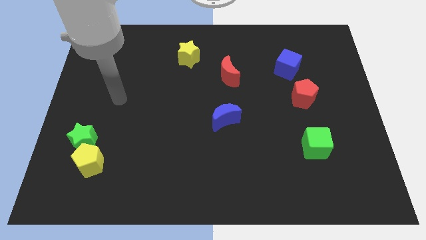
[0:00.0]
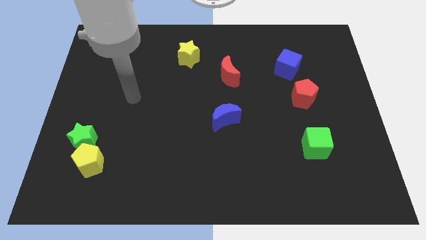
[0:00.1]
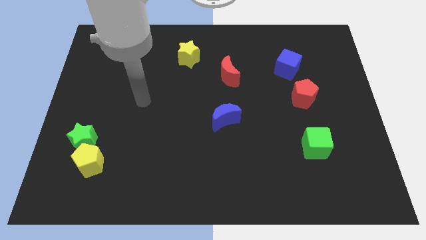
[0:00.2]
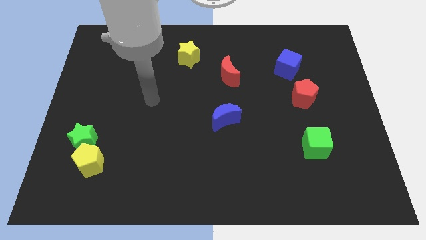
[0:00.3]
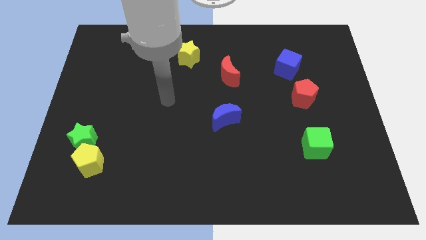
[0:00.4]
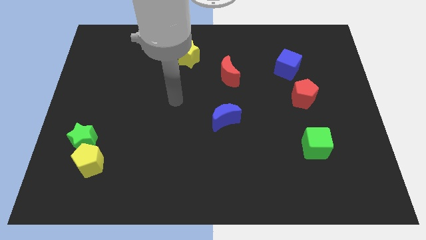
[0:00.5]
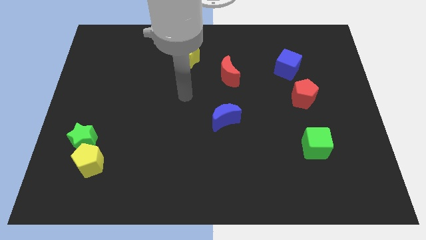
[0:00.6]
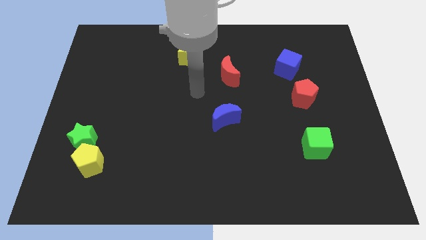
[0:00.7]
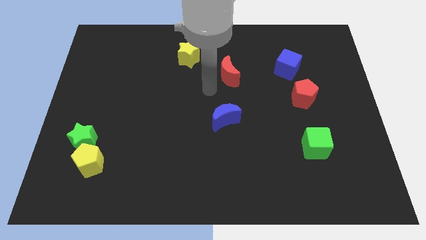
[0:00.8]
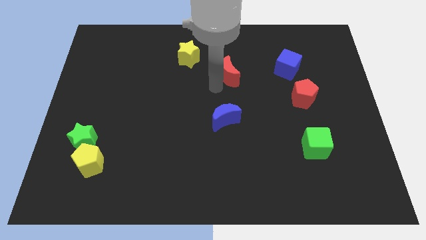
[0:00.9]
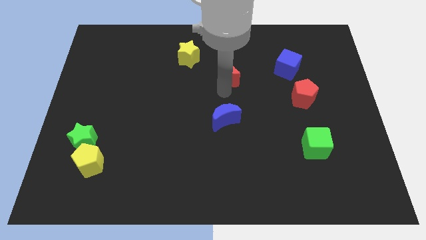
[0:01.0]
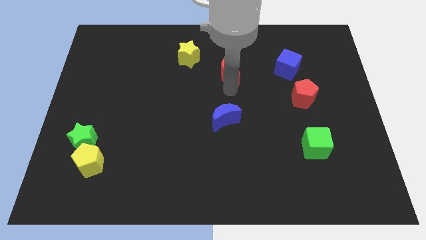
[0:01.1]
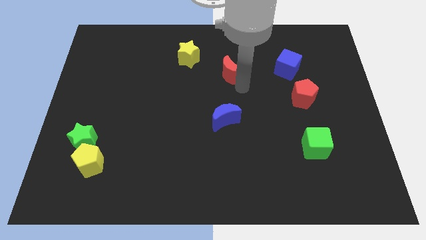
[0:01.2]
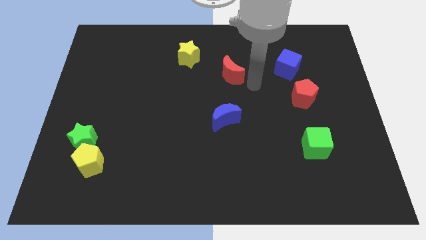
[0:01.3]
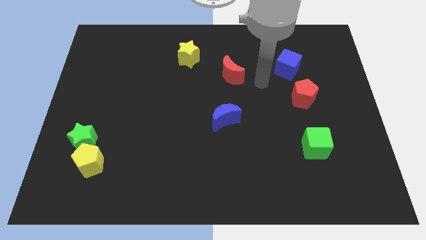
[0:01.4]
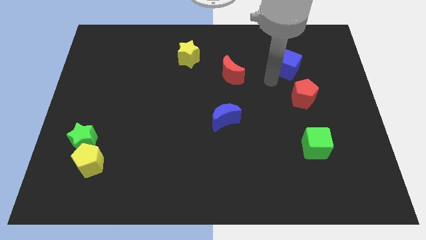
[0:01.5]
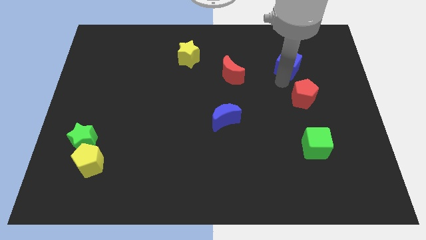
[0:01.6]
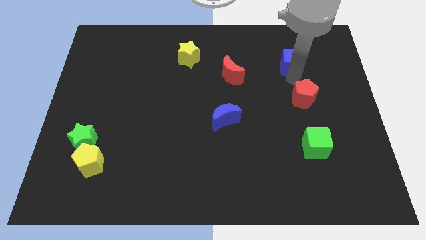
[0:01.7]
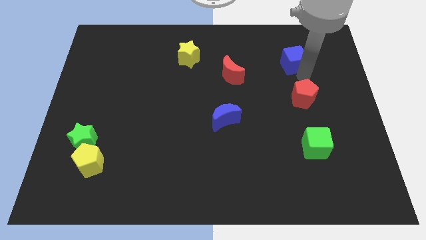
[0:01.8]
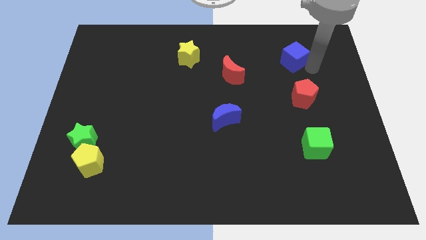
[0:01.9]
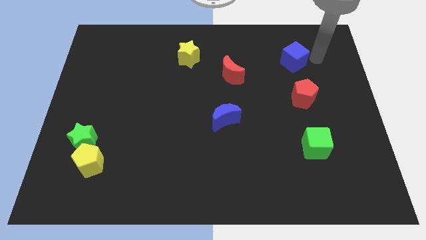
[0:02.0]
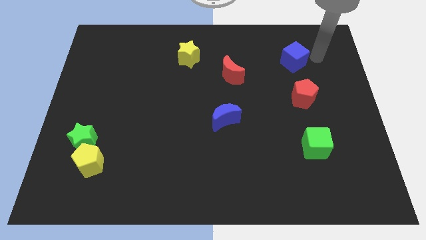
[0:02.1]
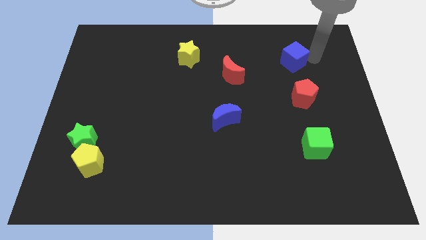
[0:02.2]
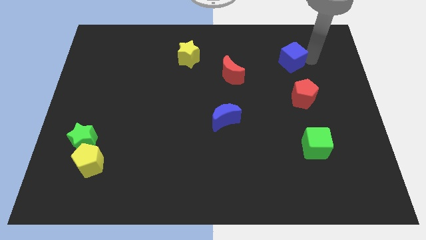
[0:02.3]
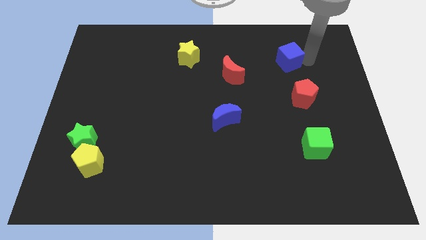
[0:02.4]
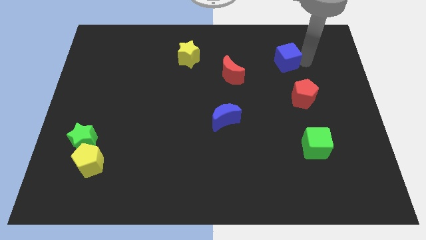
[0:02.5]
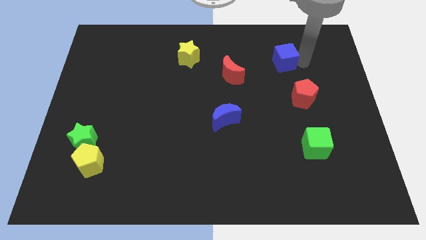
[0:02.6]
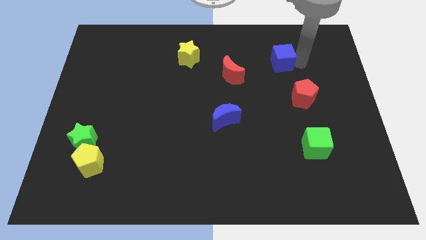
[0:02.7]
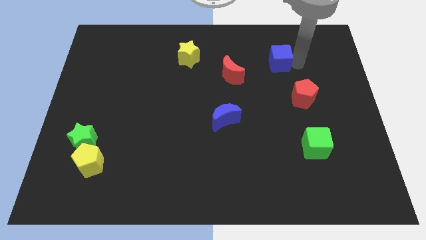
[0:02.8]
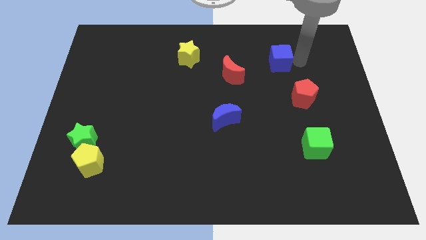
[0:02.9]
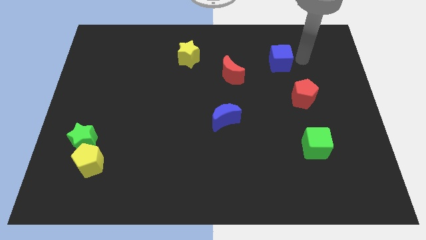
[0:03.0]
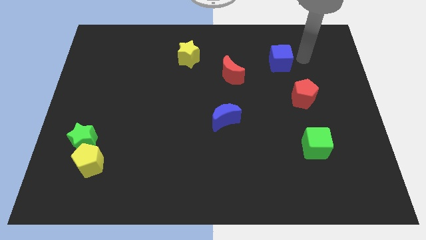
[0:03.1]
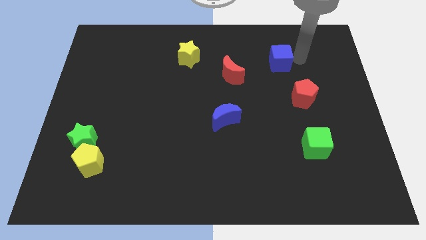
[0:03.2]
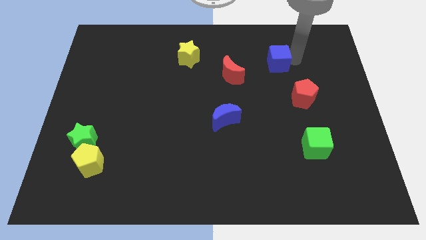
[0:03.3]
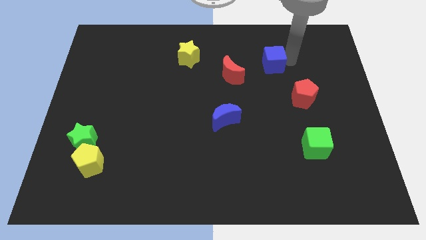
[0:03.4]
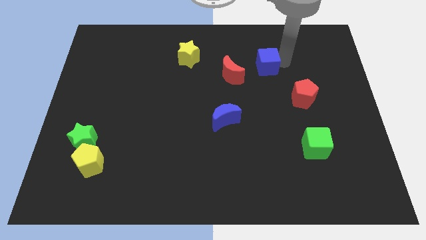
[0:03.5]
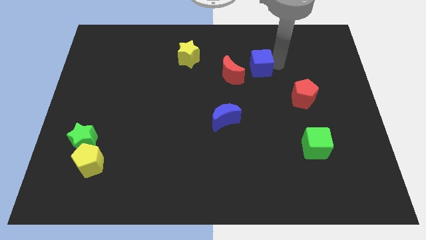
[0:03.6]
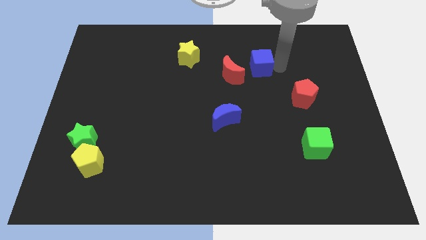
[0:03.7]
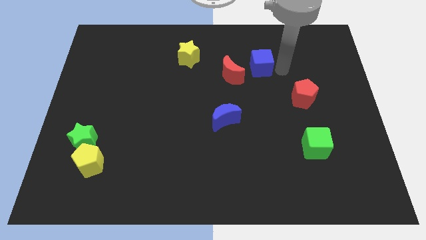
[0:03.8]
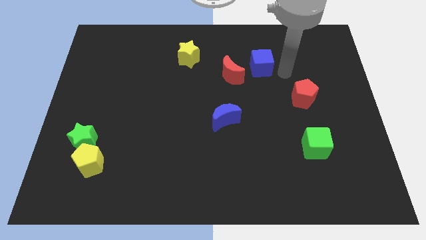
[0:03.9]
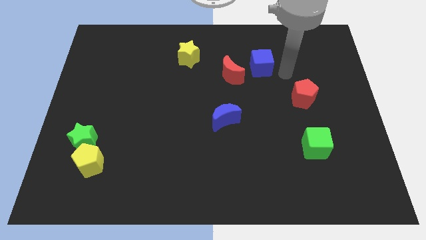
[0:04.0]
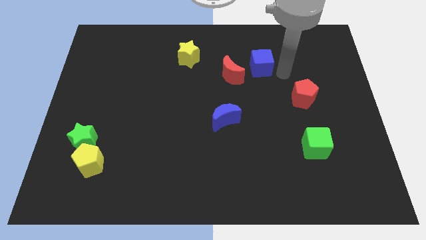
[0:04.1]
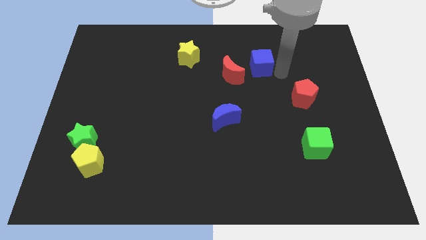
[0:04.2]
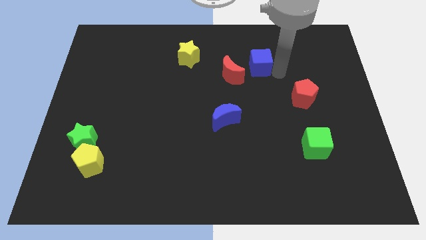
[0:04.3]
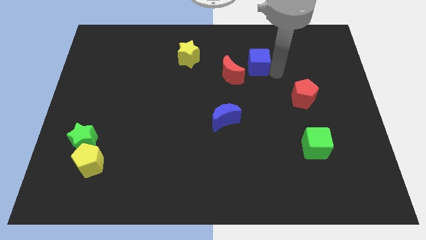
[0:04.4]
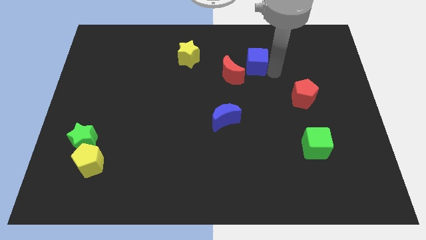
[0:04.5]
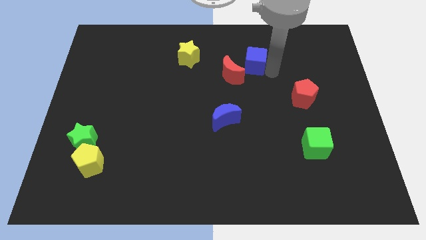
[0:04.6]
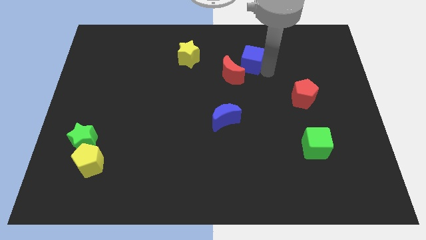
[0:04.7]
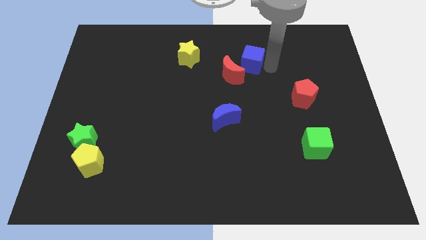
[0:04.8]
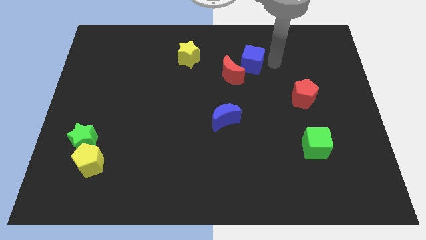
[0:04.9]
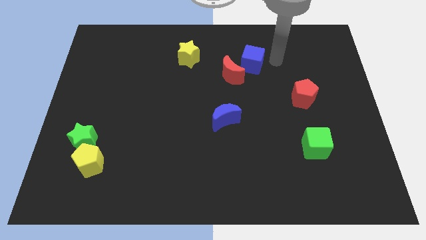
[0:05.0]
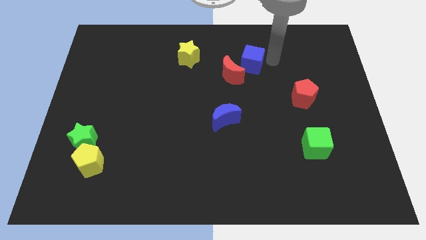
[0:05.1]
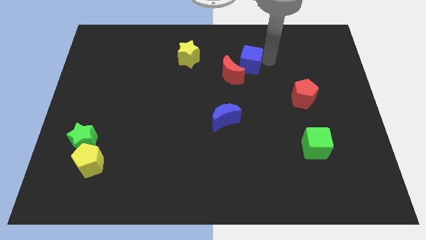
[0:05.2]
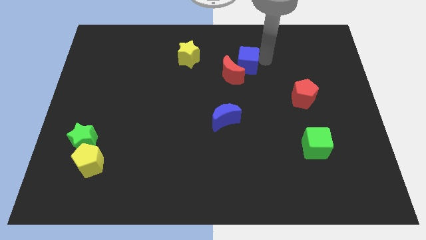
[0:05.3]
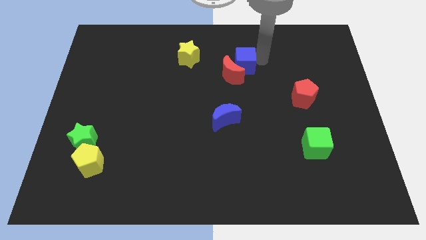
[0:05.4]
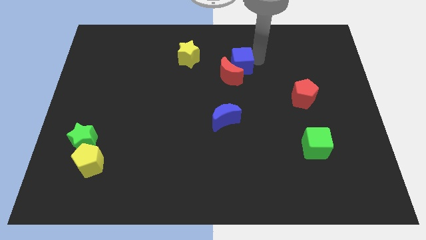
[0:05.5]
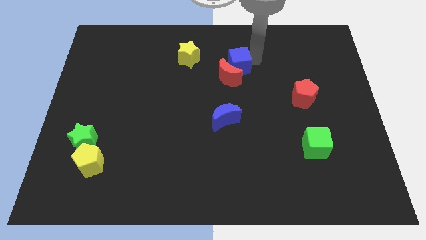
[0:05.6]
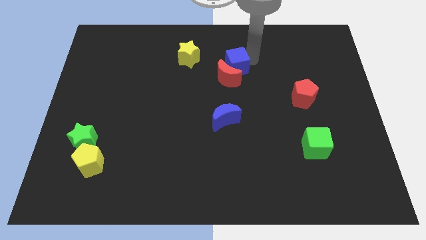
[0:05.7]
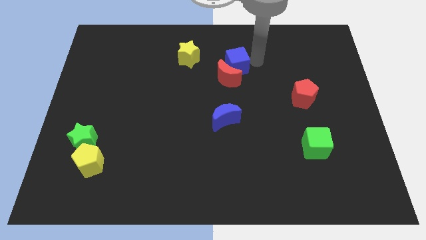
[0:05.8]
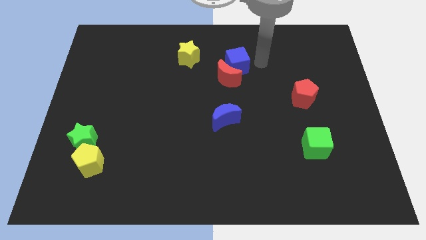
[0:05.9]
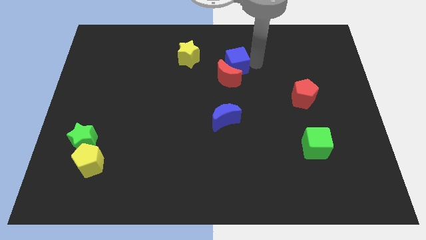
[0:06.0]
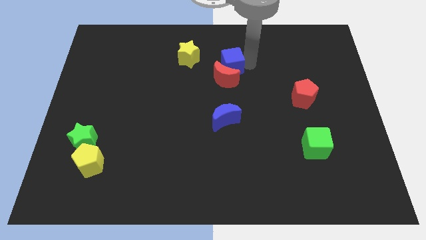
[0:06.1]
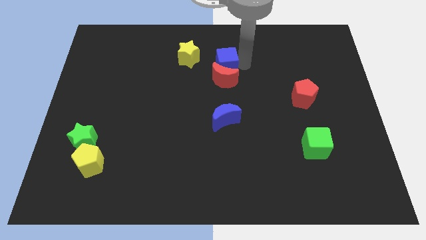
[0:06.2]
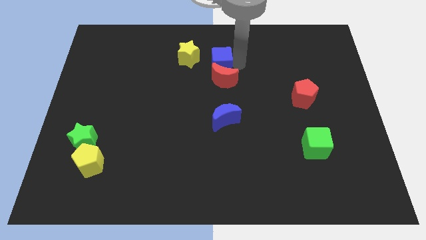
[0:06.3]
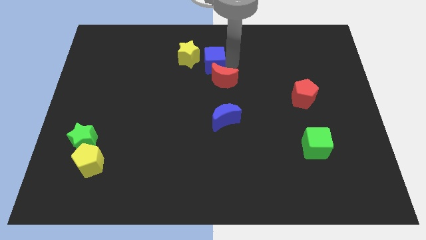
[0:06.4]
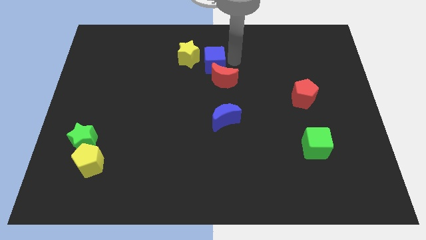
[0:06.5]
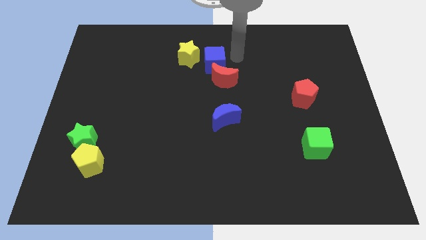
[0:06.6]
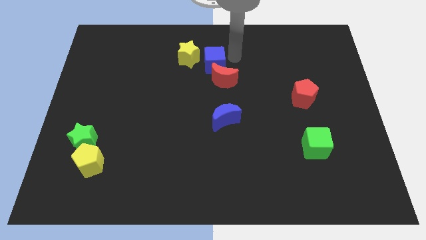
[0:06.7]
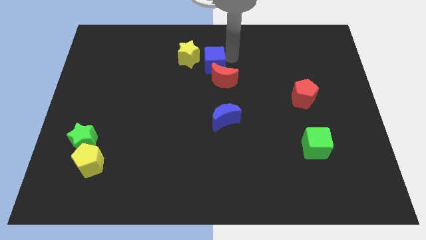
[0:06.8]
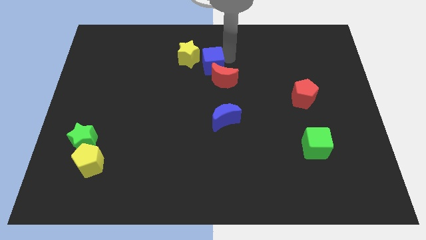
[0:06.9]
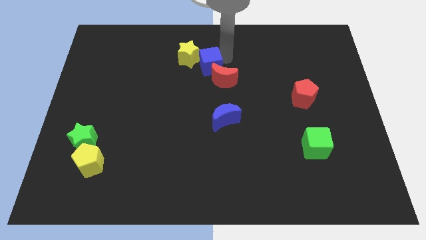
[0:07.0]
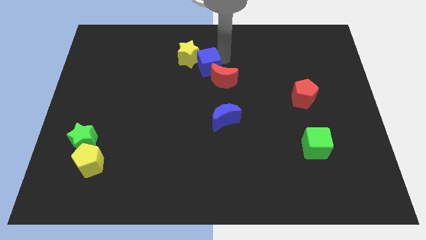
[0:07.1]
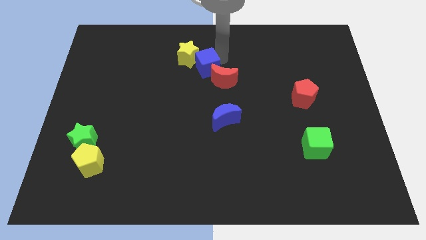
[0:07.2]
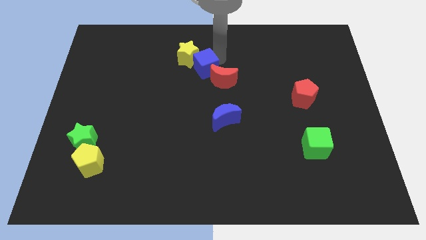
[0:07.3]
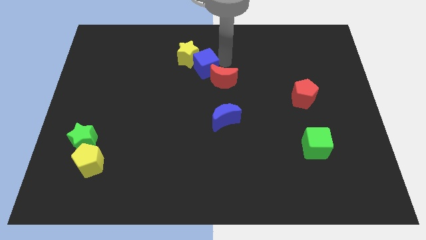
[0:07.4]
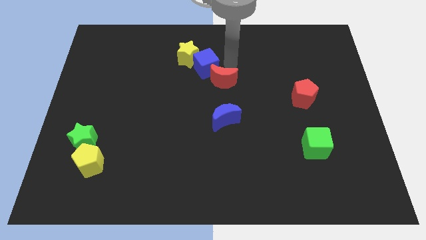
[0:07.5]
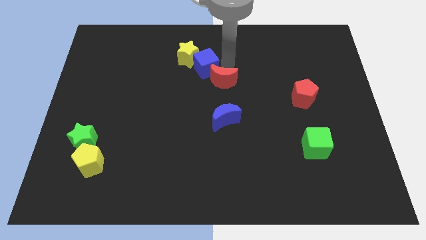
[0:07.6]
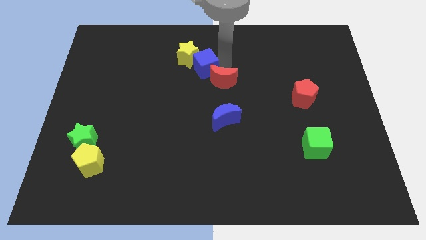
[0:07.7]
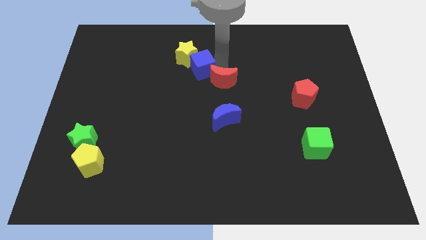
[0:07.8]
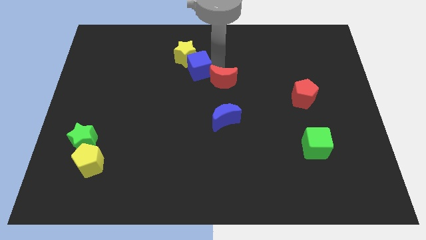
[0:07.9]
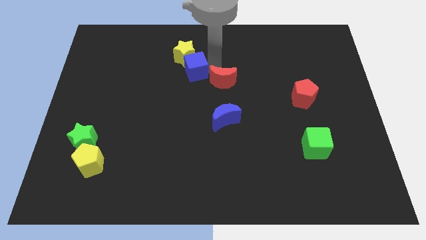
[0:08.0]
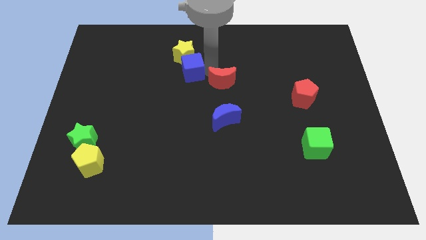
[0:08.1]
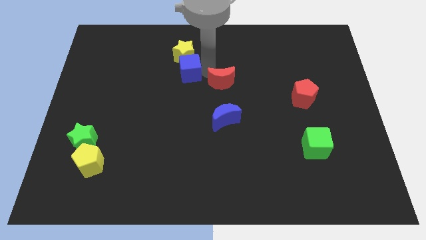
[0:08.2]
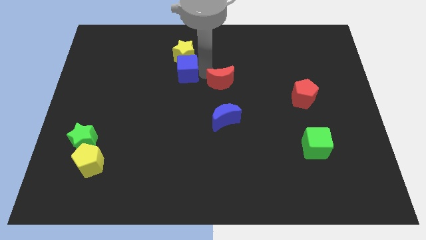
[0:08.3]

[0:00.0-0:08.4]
slide the blue cube to the bottom left side of the yellow star
